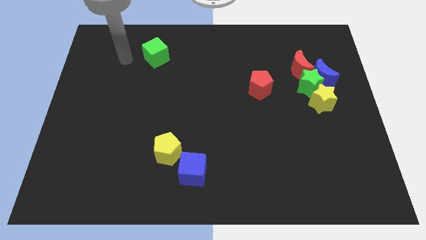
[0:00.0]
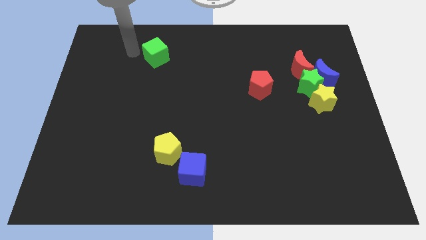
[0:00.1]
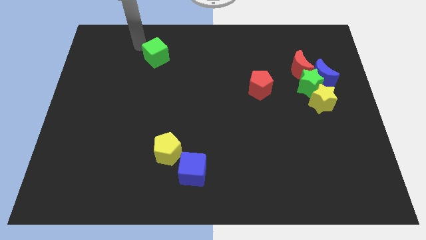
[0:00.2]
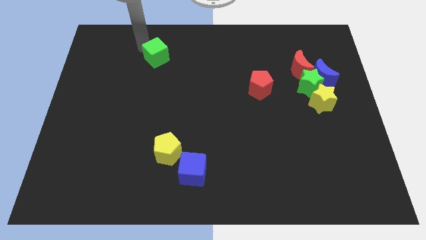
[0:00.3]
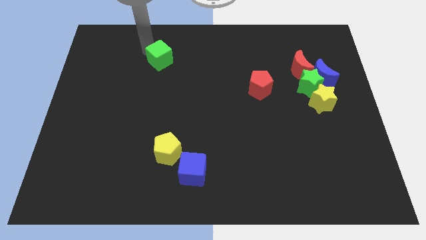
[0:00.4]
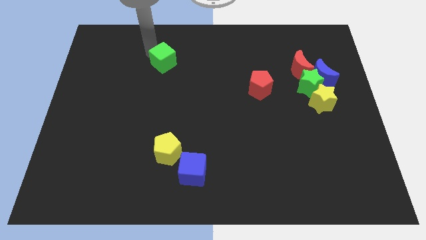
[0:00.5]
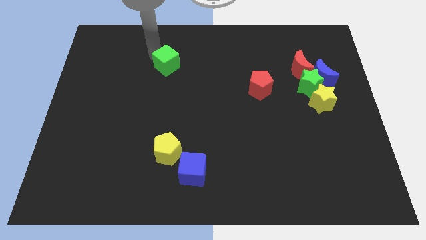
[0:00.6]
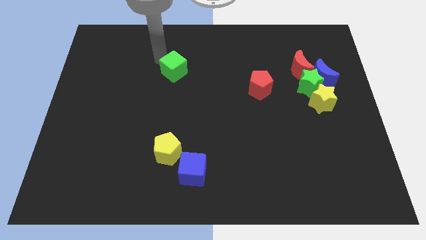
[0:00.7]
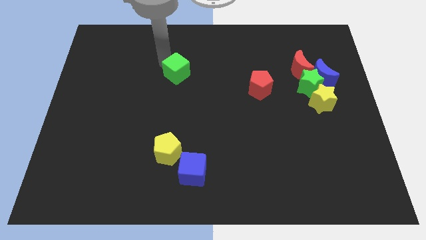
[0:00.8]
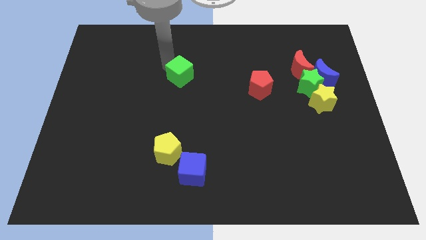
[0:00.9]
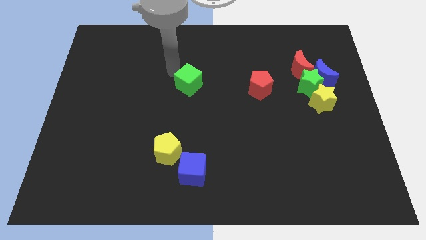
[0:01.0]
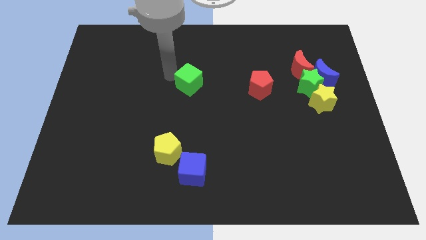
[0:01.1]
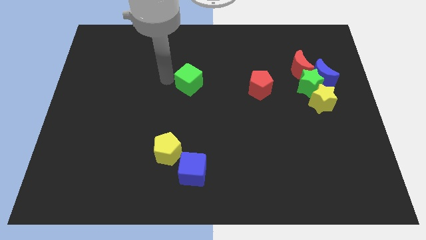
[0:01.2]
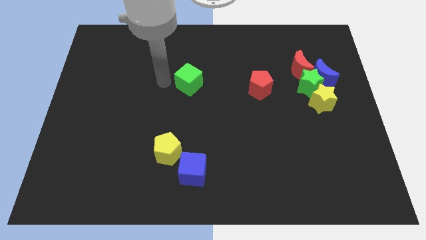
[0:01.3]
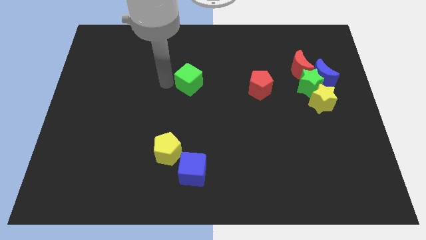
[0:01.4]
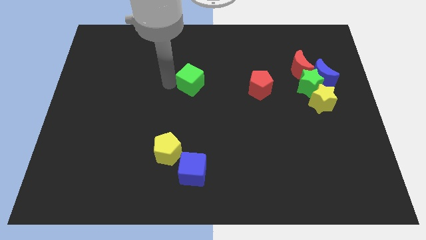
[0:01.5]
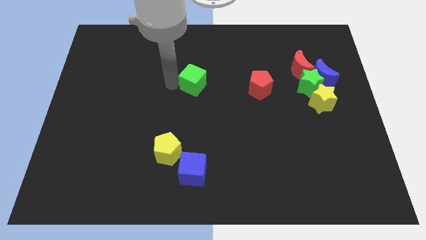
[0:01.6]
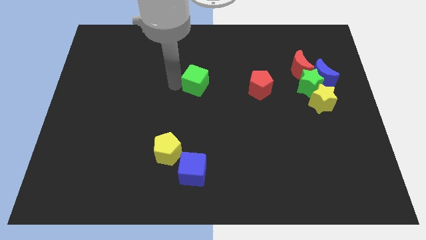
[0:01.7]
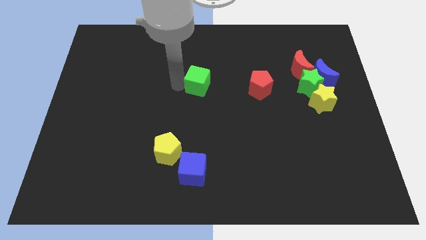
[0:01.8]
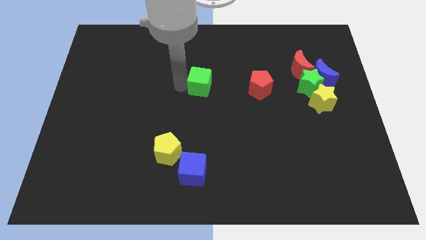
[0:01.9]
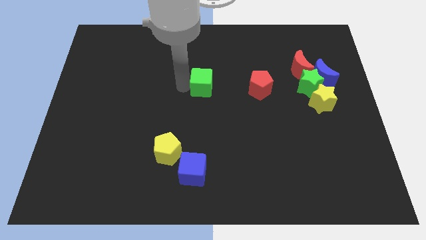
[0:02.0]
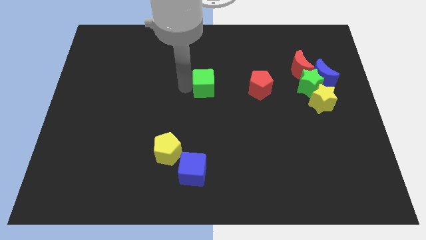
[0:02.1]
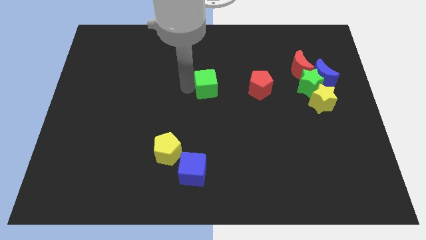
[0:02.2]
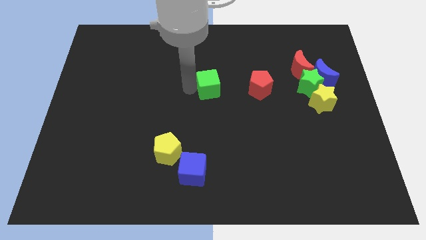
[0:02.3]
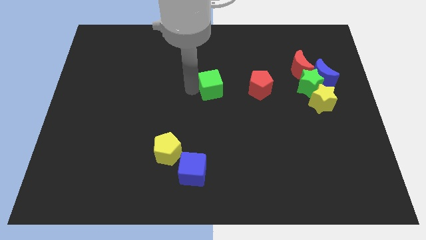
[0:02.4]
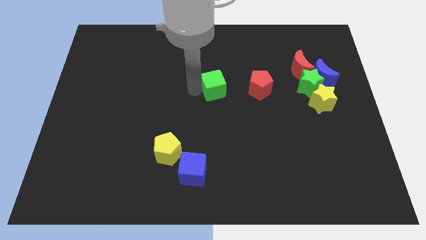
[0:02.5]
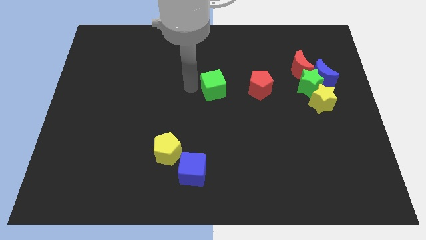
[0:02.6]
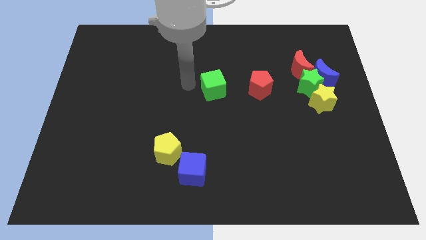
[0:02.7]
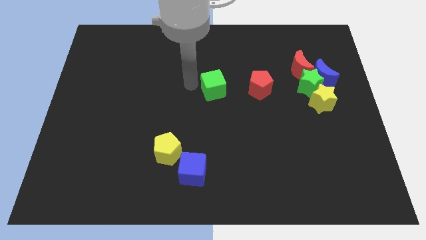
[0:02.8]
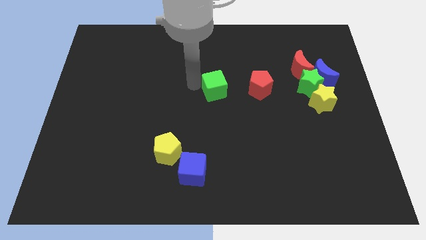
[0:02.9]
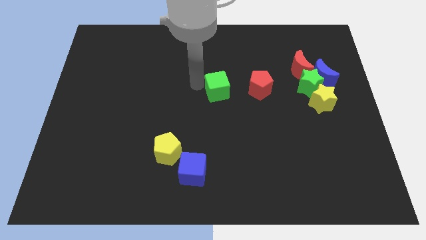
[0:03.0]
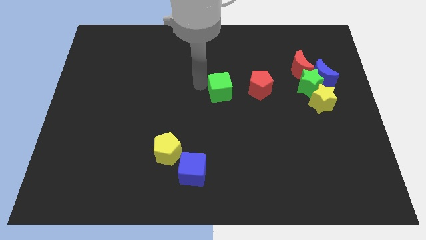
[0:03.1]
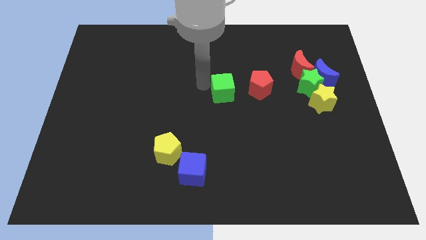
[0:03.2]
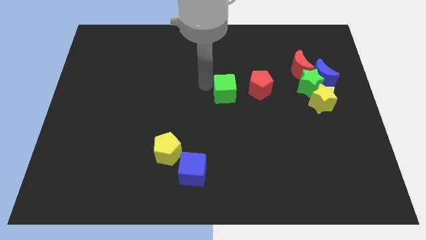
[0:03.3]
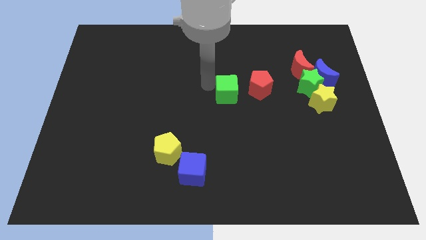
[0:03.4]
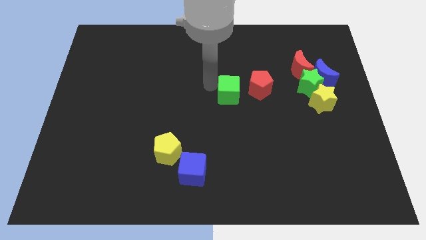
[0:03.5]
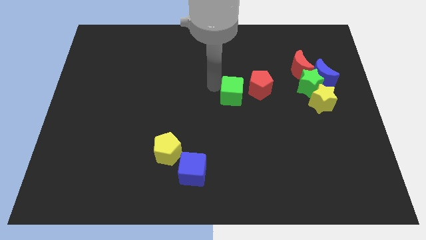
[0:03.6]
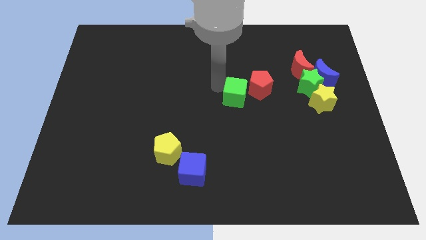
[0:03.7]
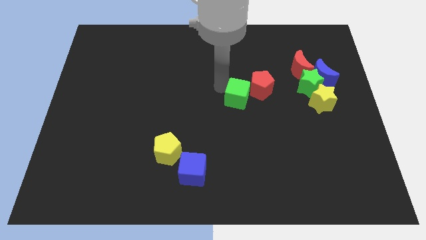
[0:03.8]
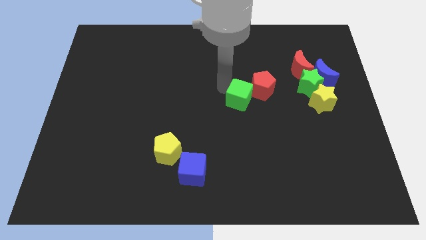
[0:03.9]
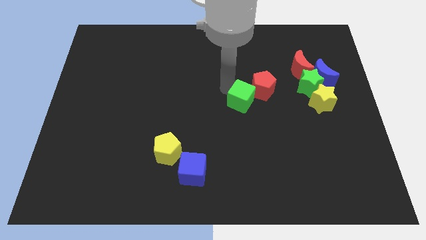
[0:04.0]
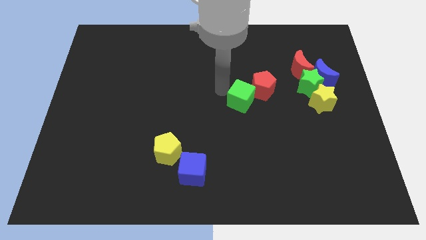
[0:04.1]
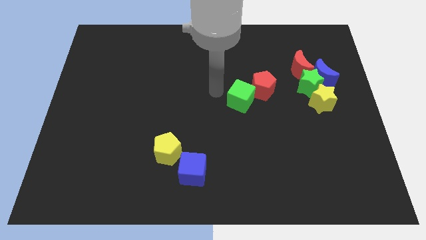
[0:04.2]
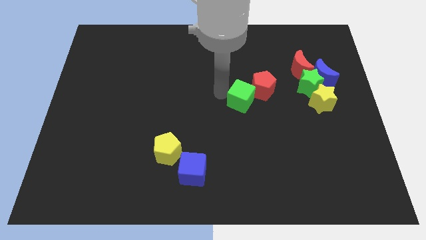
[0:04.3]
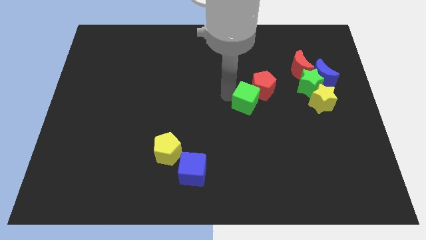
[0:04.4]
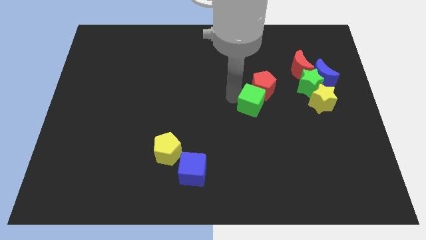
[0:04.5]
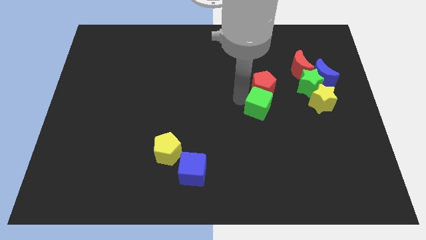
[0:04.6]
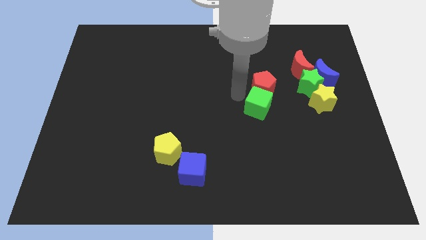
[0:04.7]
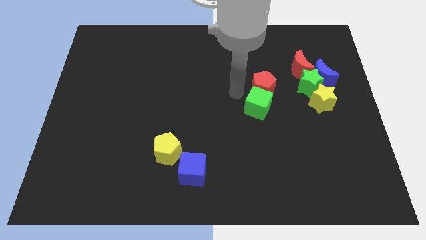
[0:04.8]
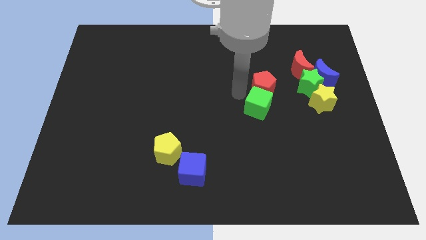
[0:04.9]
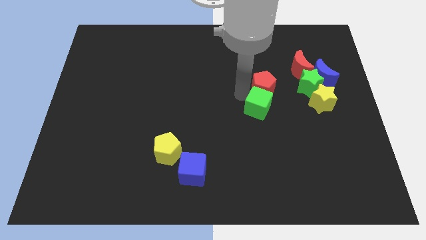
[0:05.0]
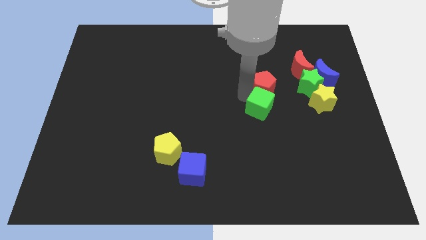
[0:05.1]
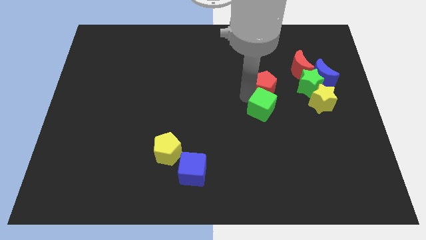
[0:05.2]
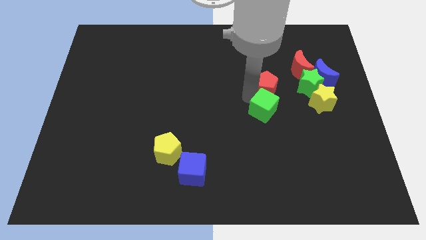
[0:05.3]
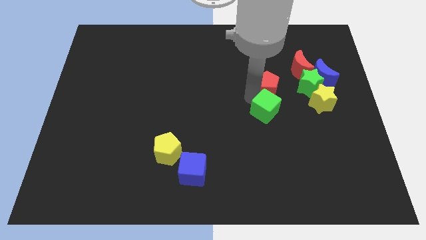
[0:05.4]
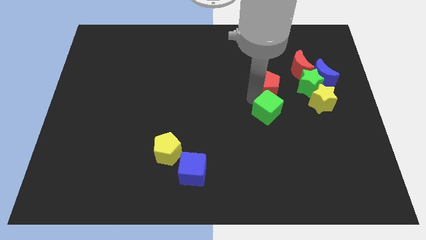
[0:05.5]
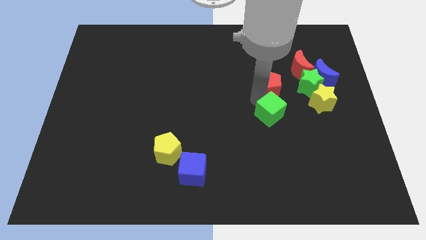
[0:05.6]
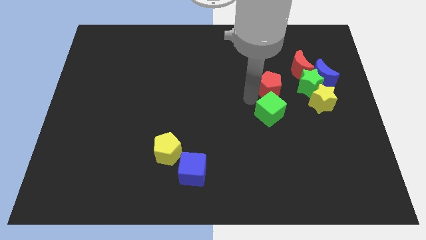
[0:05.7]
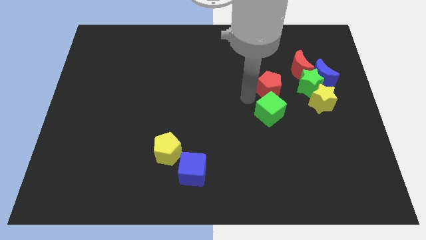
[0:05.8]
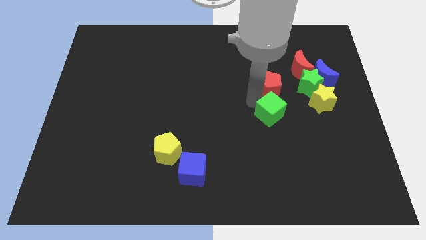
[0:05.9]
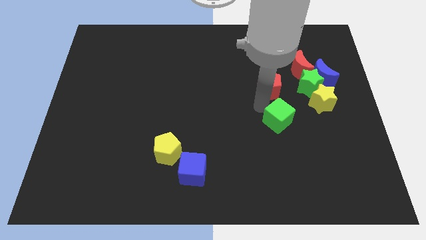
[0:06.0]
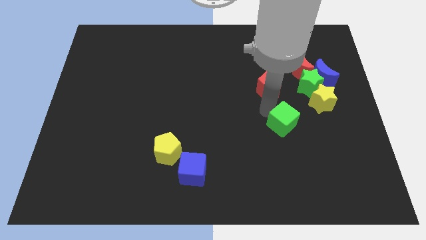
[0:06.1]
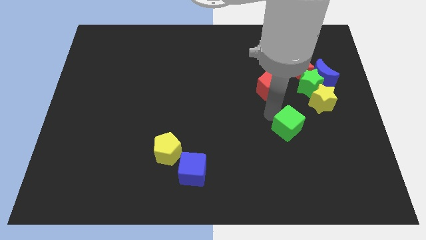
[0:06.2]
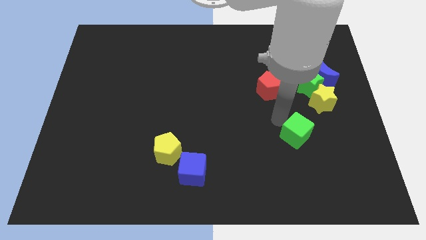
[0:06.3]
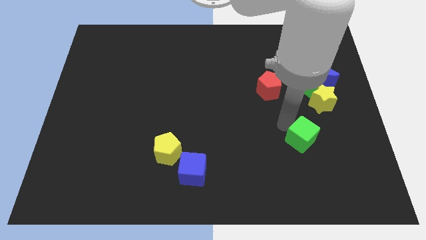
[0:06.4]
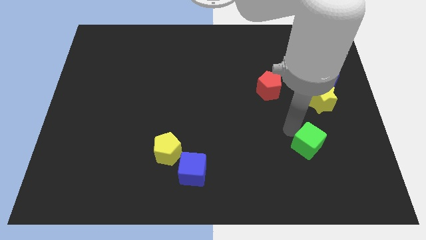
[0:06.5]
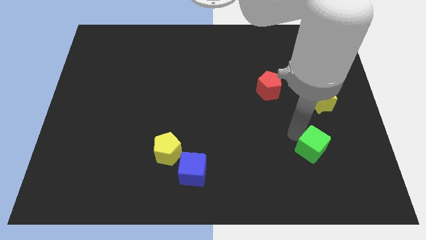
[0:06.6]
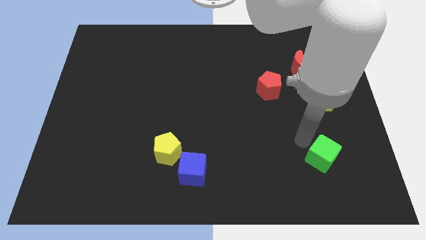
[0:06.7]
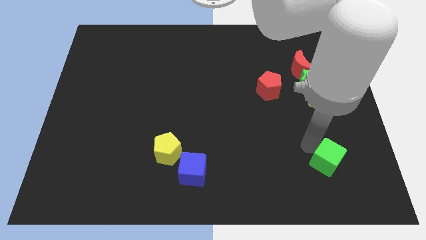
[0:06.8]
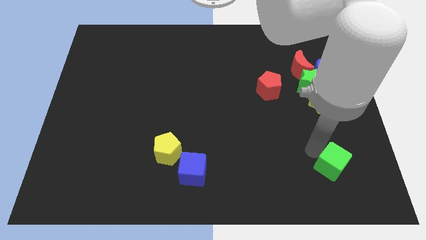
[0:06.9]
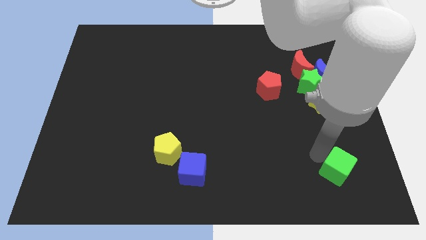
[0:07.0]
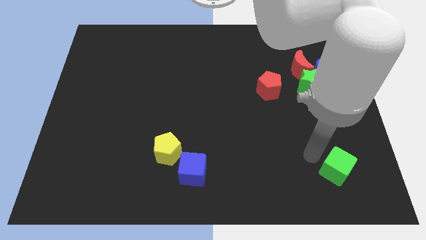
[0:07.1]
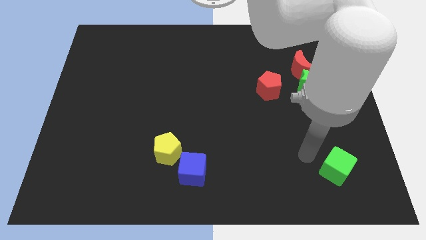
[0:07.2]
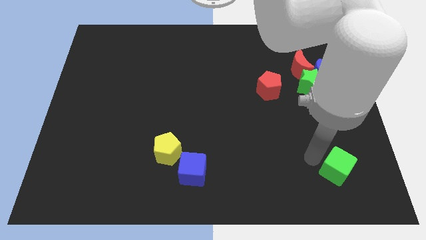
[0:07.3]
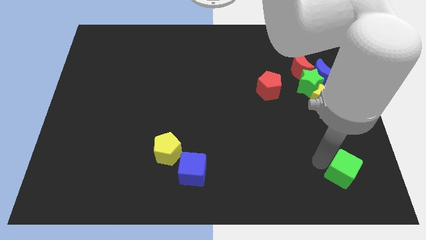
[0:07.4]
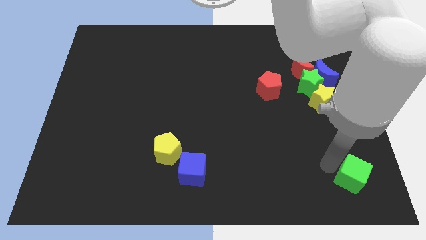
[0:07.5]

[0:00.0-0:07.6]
slide the green cube to the bottom right
